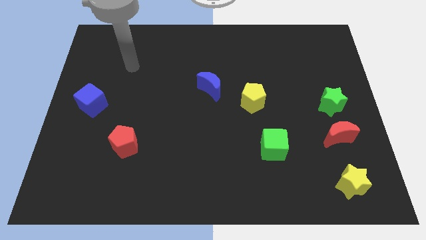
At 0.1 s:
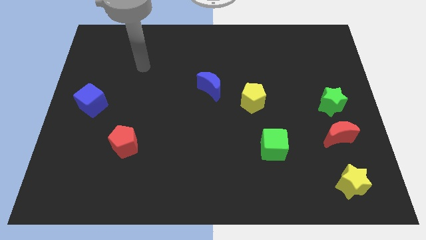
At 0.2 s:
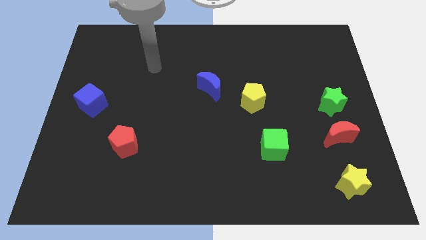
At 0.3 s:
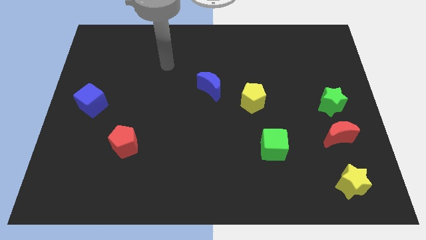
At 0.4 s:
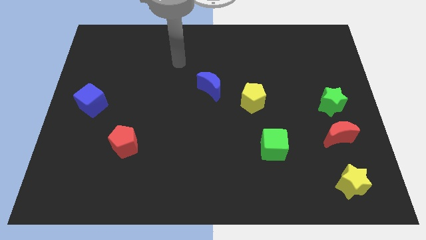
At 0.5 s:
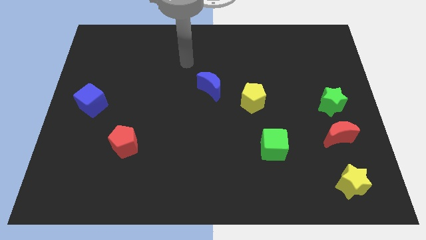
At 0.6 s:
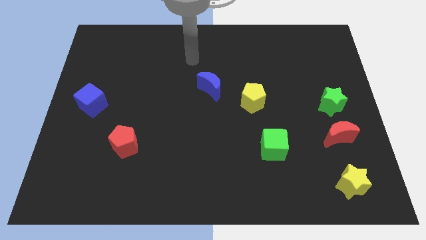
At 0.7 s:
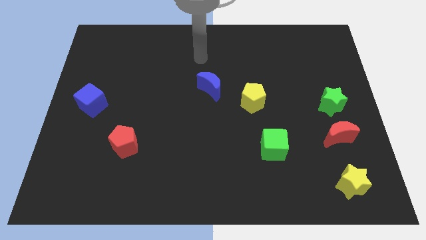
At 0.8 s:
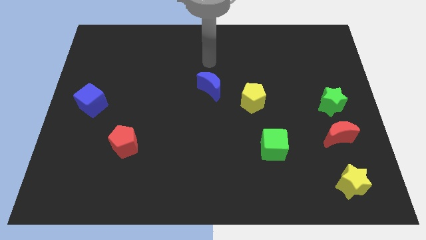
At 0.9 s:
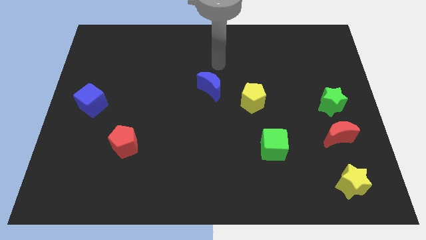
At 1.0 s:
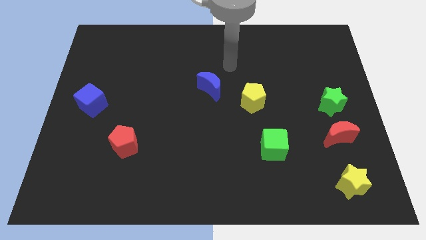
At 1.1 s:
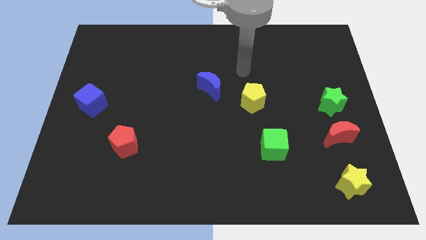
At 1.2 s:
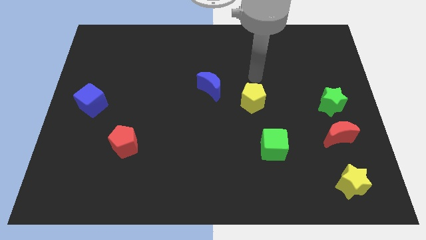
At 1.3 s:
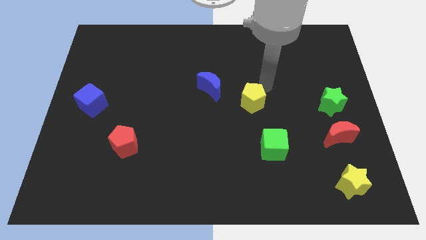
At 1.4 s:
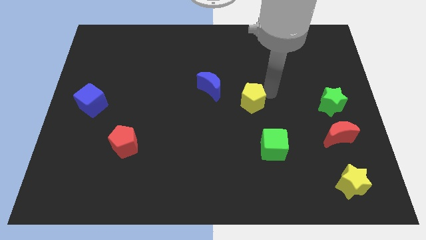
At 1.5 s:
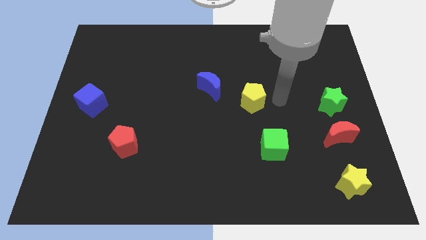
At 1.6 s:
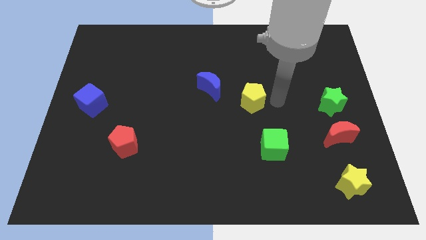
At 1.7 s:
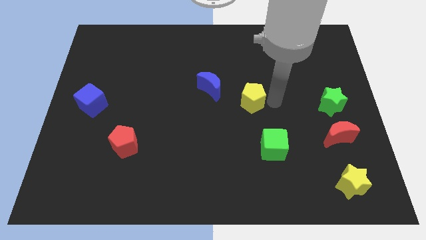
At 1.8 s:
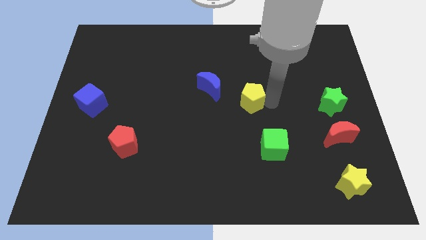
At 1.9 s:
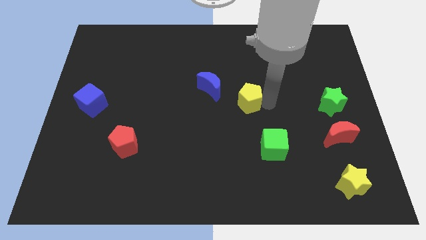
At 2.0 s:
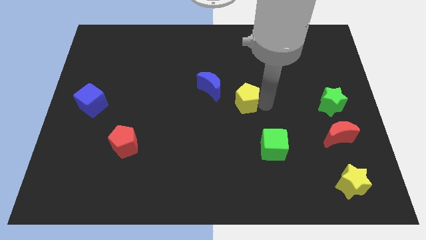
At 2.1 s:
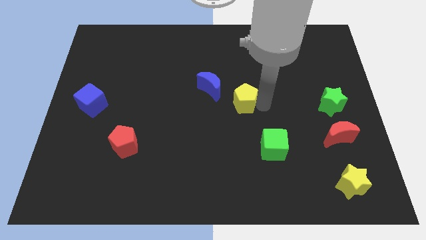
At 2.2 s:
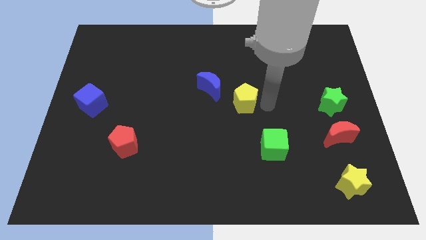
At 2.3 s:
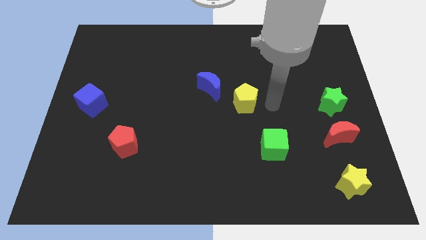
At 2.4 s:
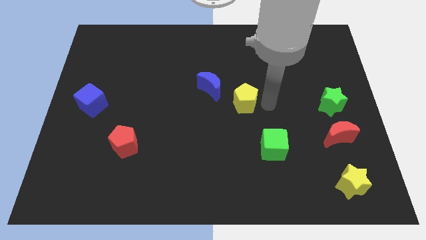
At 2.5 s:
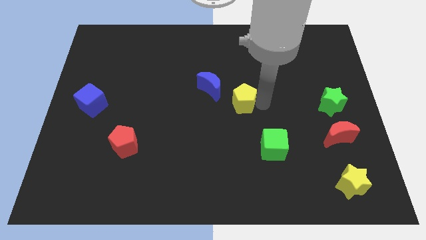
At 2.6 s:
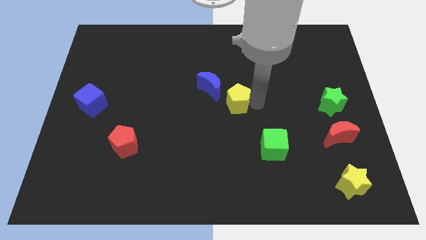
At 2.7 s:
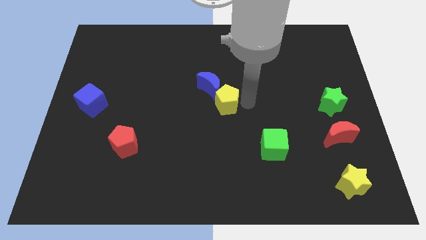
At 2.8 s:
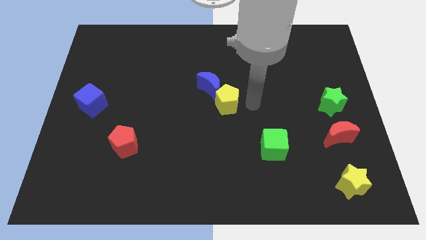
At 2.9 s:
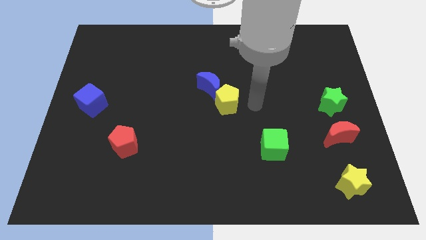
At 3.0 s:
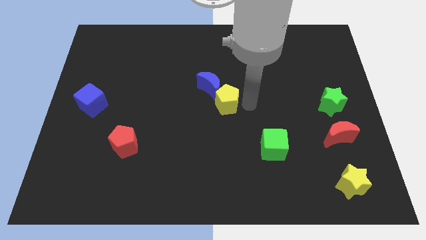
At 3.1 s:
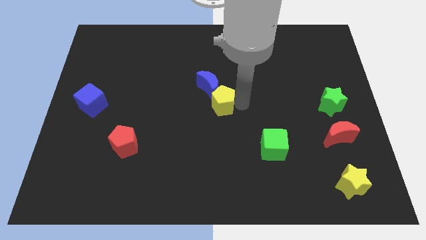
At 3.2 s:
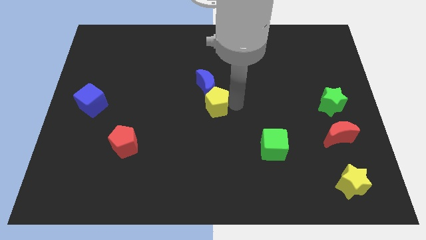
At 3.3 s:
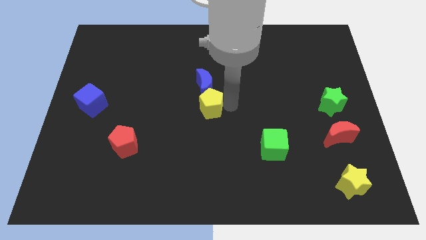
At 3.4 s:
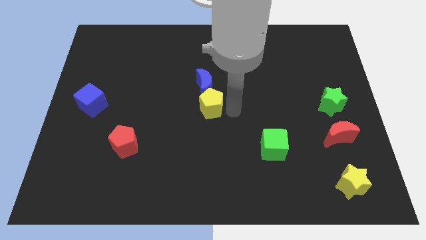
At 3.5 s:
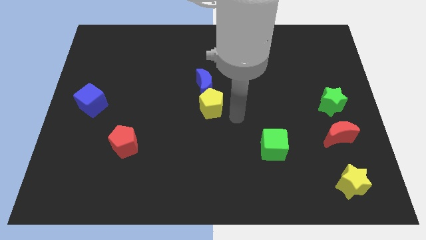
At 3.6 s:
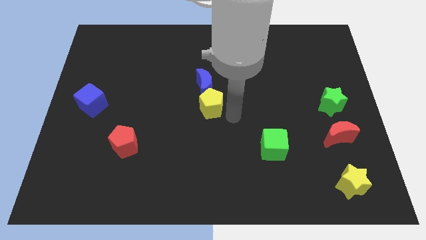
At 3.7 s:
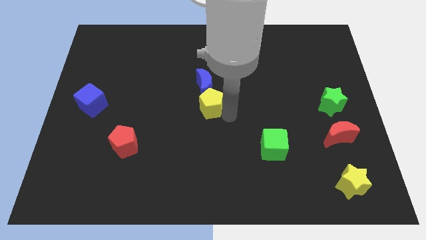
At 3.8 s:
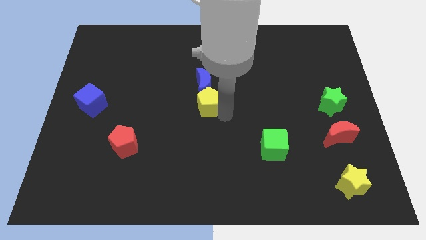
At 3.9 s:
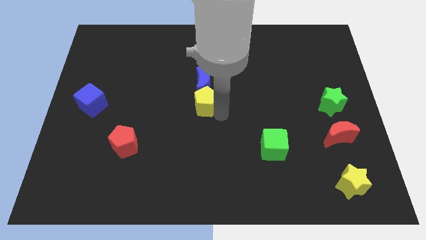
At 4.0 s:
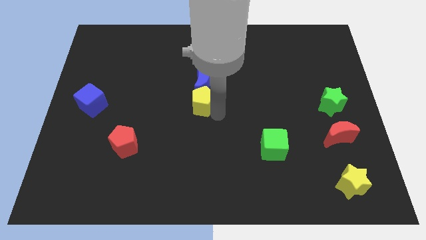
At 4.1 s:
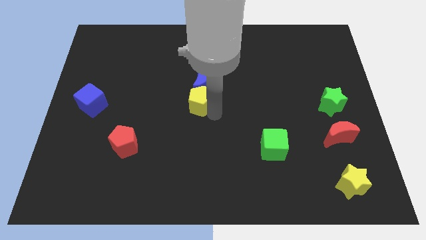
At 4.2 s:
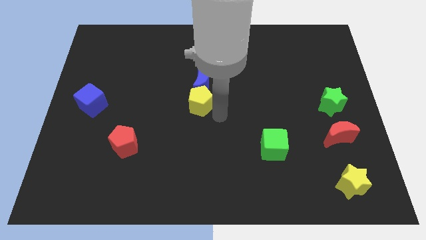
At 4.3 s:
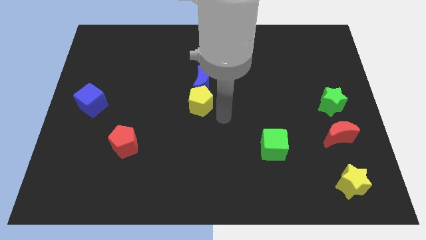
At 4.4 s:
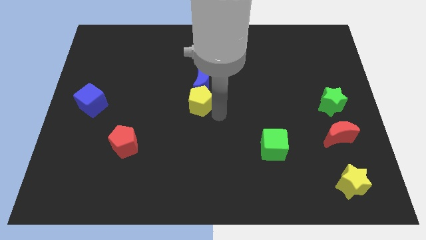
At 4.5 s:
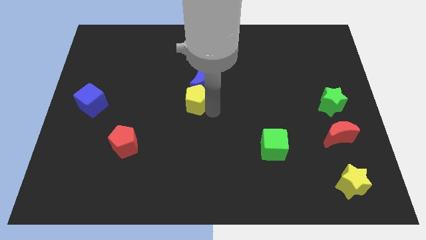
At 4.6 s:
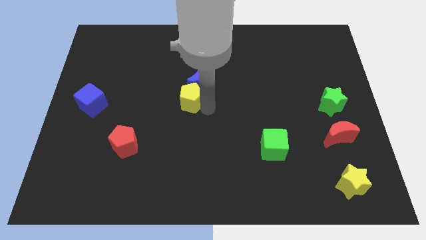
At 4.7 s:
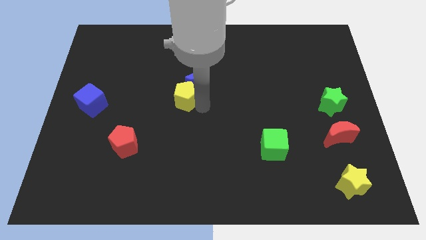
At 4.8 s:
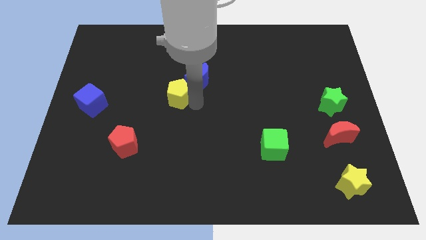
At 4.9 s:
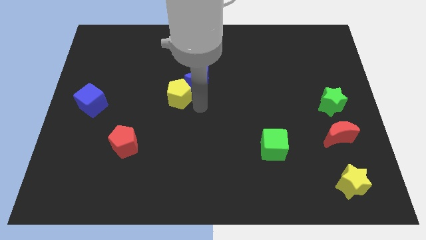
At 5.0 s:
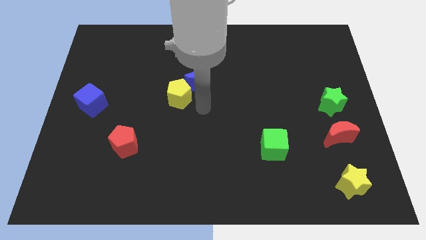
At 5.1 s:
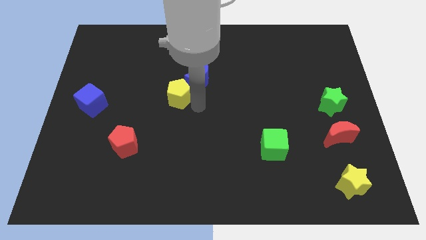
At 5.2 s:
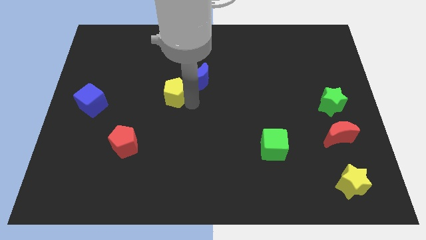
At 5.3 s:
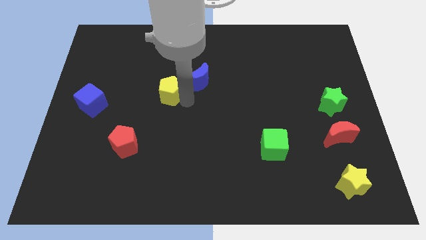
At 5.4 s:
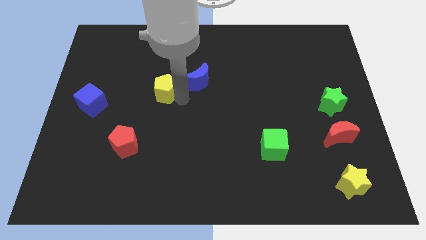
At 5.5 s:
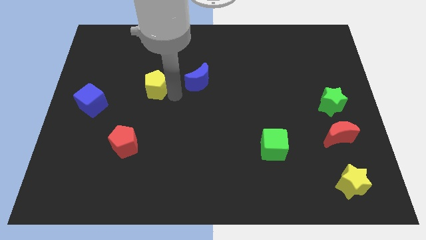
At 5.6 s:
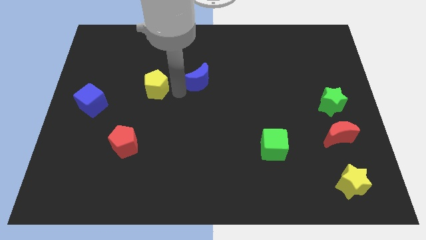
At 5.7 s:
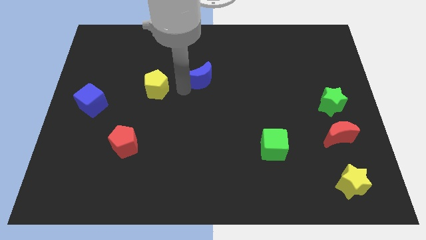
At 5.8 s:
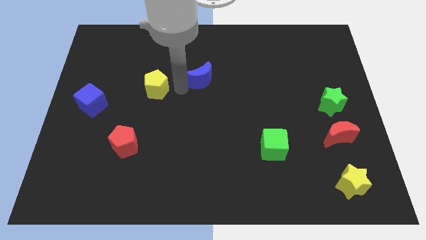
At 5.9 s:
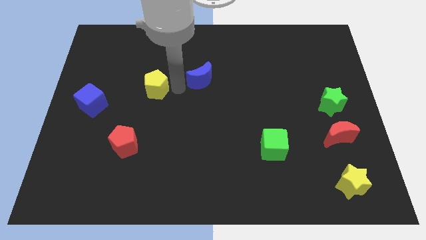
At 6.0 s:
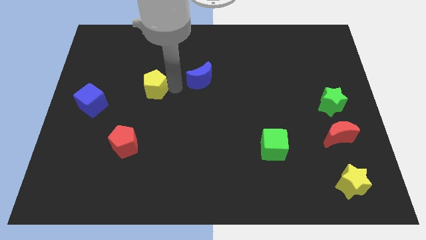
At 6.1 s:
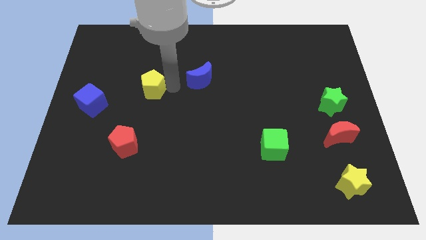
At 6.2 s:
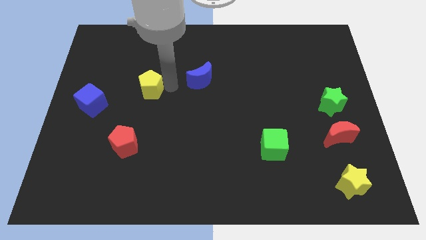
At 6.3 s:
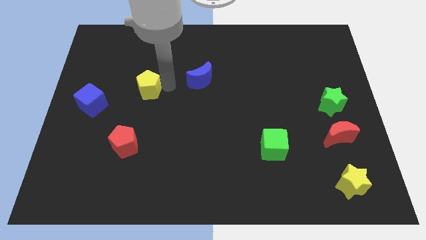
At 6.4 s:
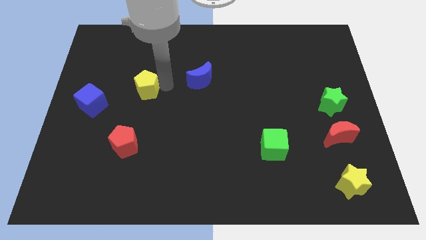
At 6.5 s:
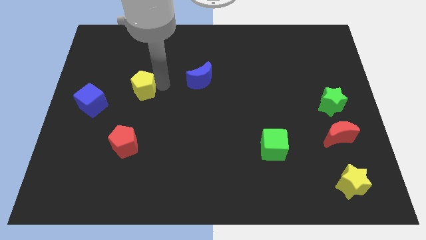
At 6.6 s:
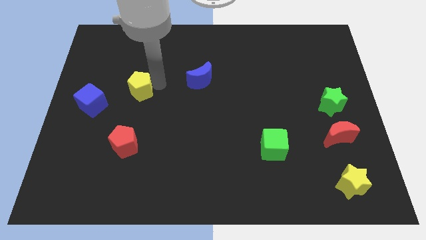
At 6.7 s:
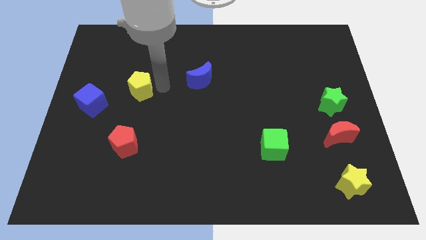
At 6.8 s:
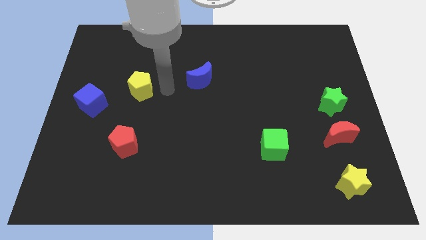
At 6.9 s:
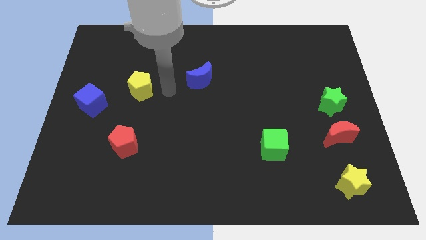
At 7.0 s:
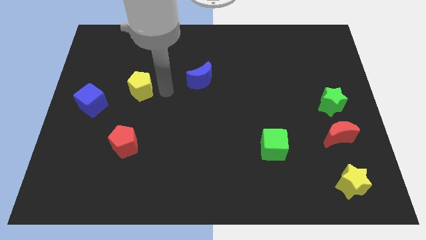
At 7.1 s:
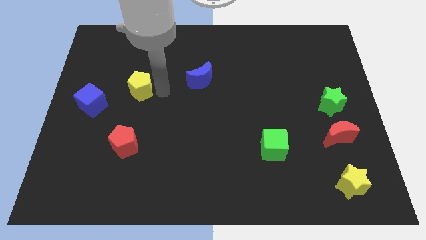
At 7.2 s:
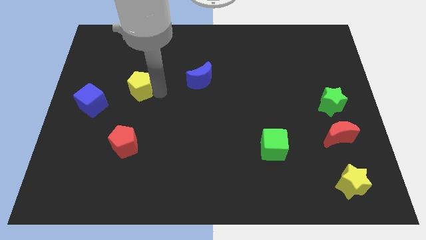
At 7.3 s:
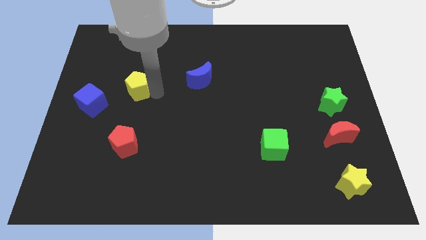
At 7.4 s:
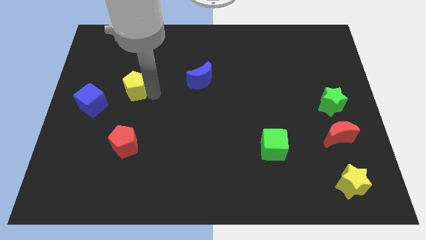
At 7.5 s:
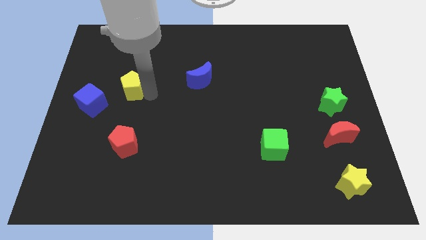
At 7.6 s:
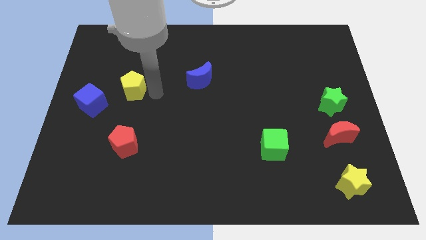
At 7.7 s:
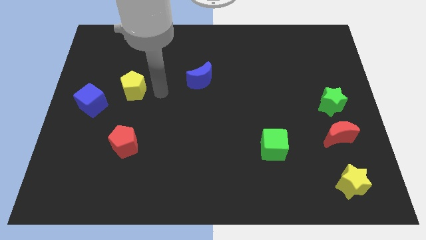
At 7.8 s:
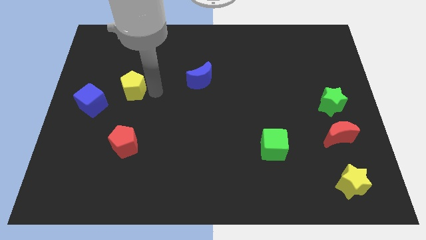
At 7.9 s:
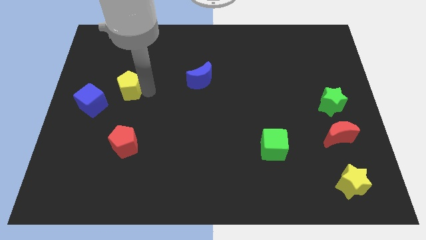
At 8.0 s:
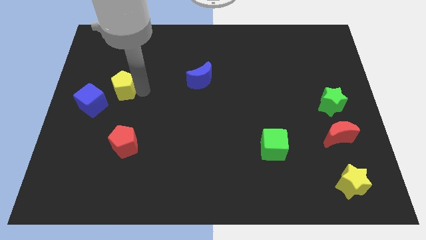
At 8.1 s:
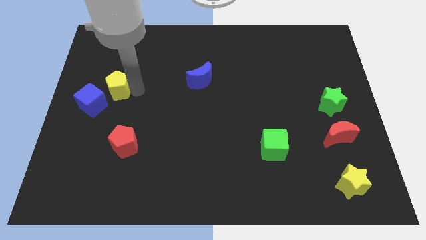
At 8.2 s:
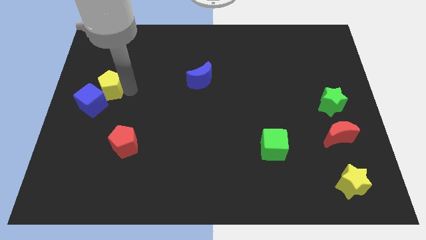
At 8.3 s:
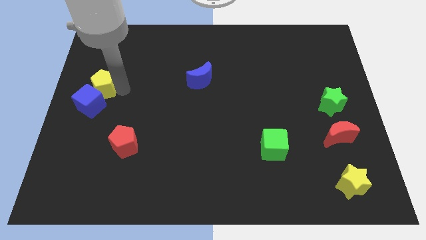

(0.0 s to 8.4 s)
put the yellow pentagon to the left side of the board
